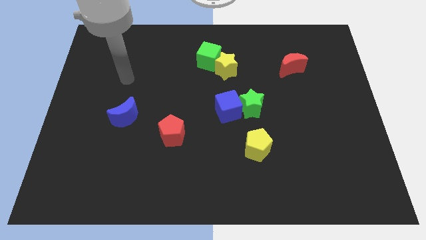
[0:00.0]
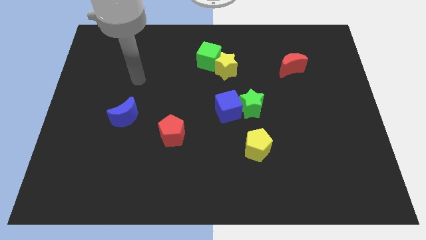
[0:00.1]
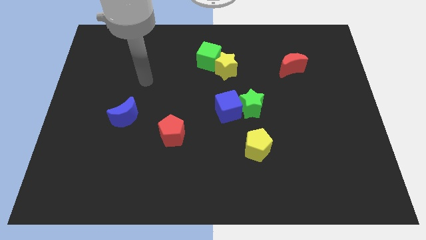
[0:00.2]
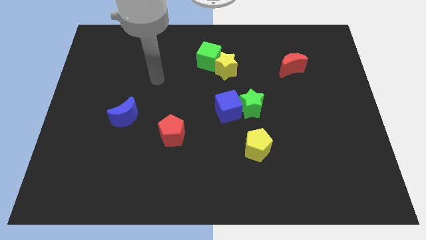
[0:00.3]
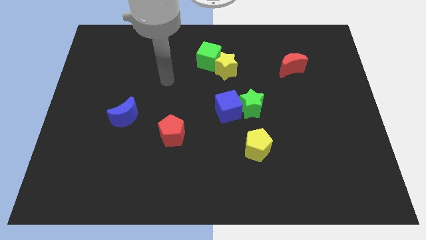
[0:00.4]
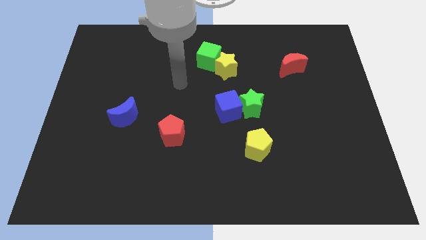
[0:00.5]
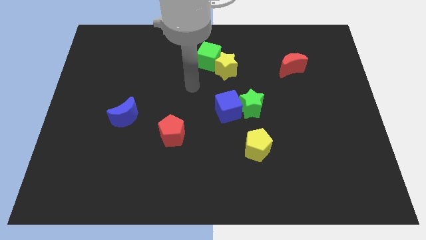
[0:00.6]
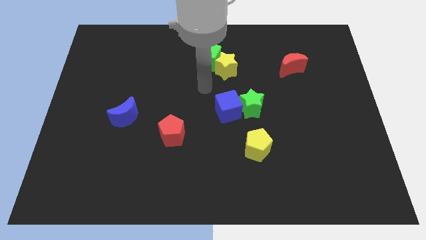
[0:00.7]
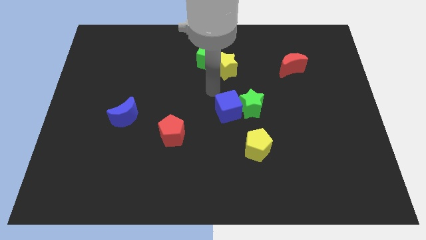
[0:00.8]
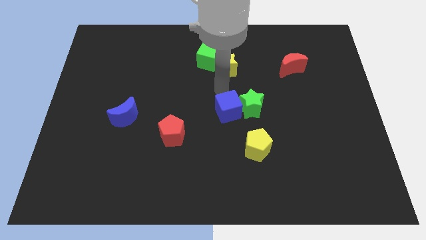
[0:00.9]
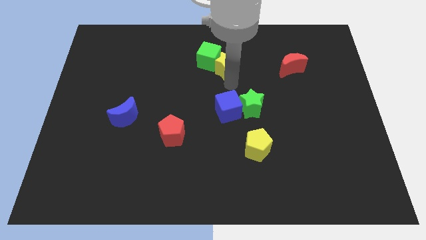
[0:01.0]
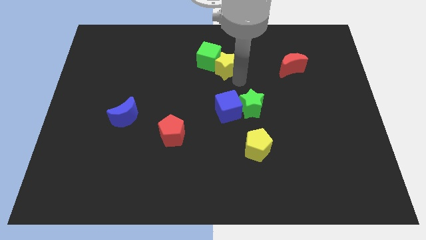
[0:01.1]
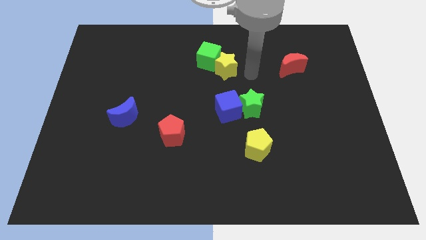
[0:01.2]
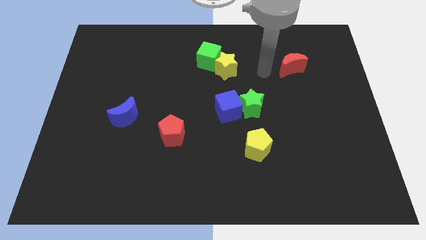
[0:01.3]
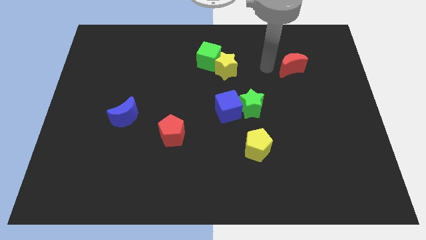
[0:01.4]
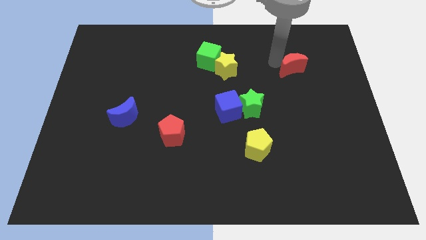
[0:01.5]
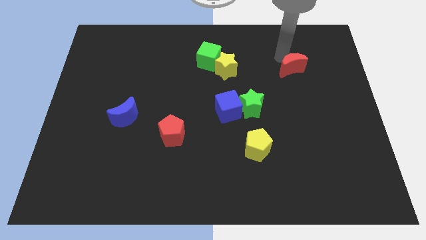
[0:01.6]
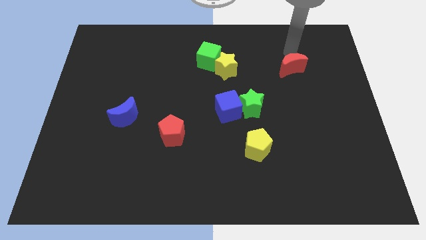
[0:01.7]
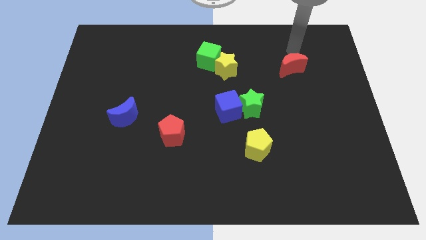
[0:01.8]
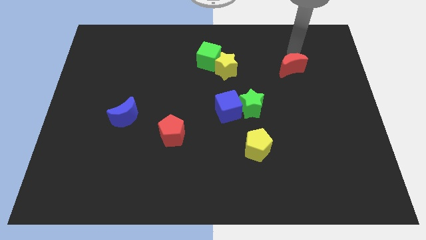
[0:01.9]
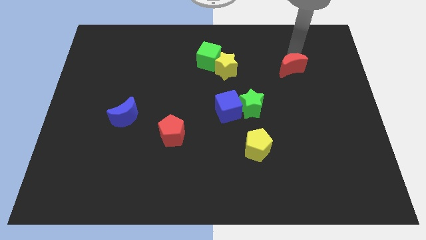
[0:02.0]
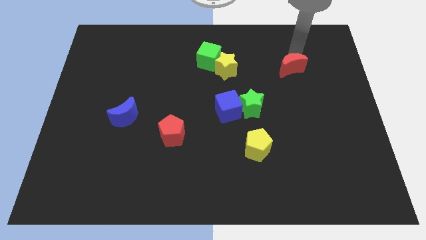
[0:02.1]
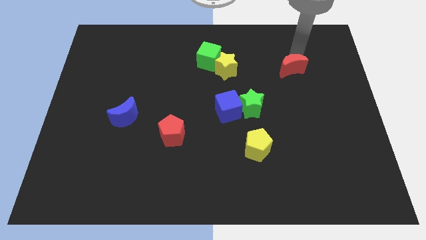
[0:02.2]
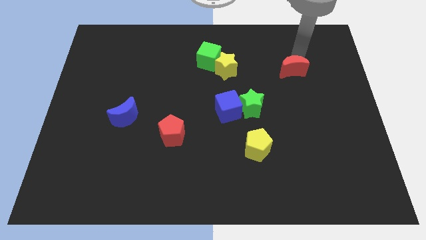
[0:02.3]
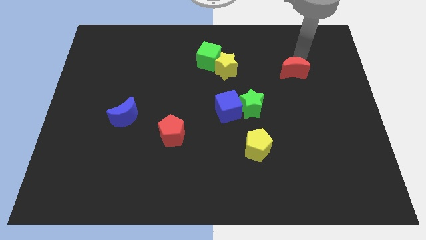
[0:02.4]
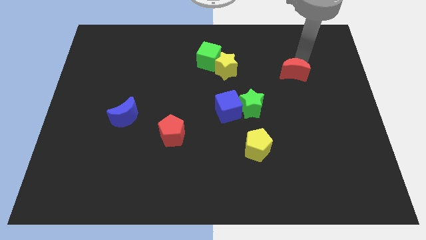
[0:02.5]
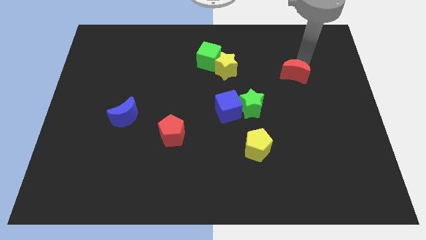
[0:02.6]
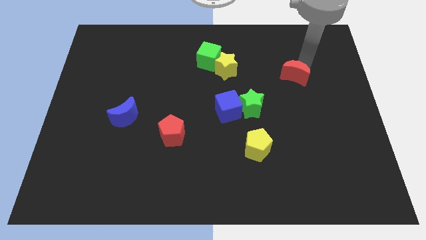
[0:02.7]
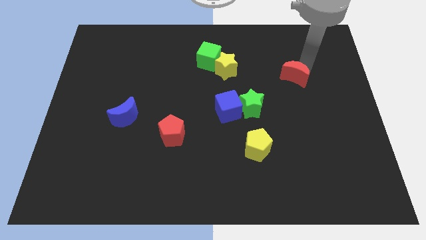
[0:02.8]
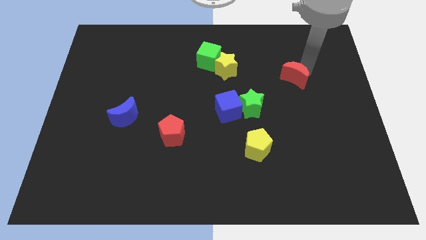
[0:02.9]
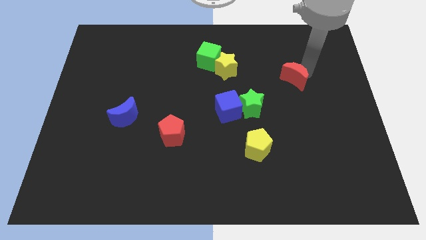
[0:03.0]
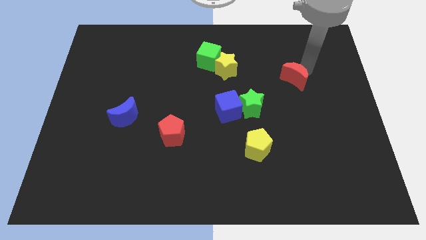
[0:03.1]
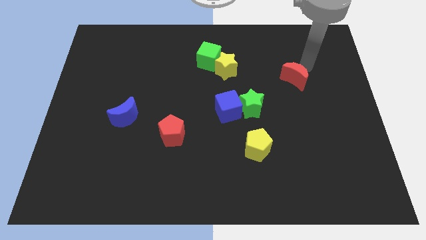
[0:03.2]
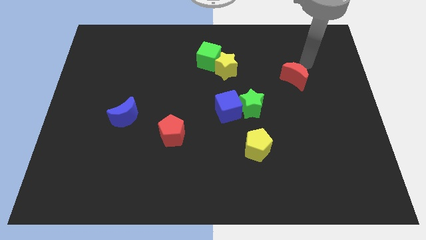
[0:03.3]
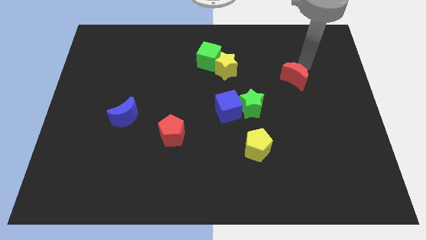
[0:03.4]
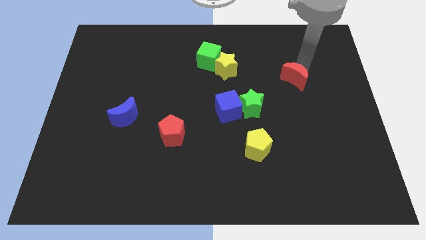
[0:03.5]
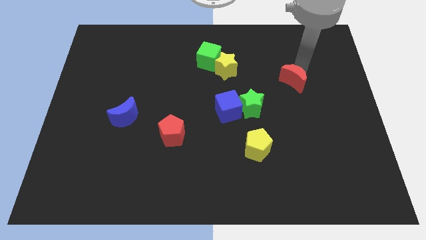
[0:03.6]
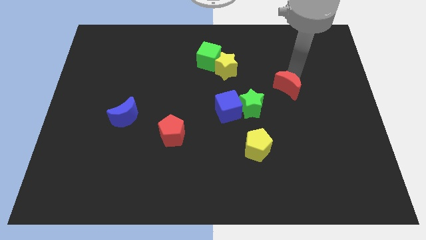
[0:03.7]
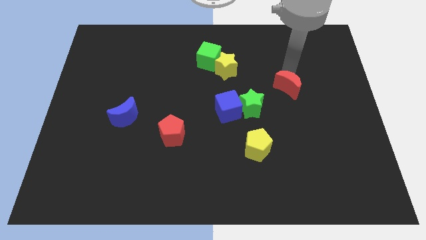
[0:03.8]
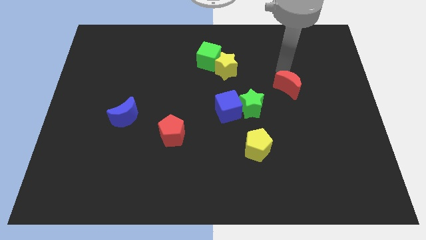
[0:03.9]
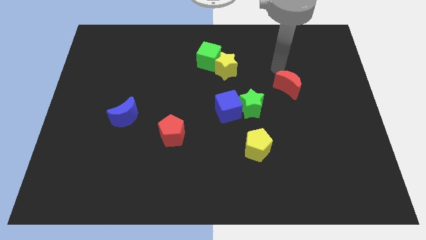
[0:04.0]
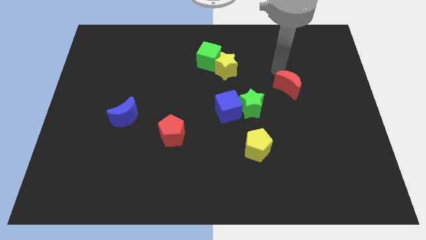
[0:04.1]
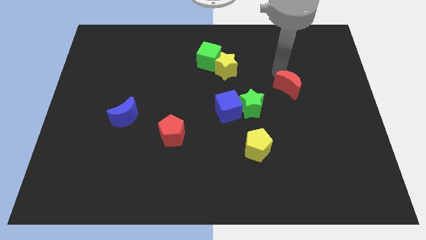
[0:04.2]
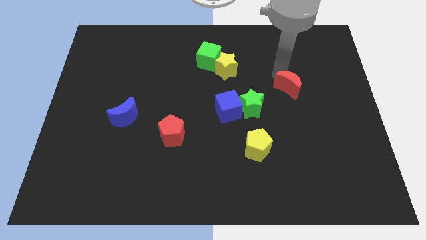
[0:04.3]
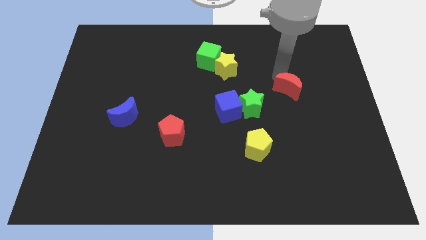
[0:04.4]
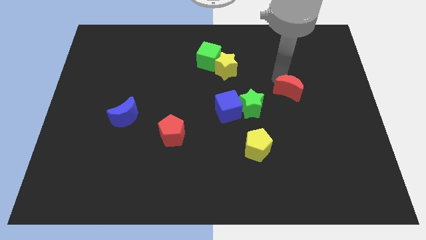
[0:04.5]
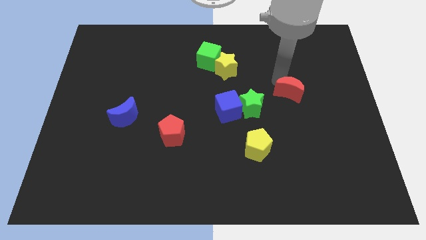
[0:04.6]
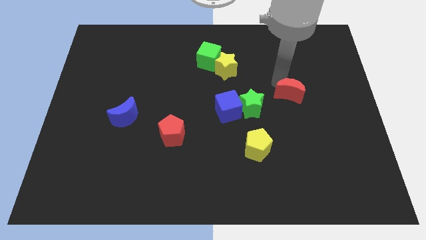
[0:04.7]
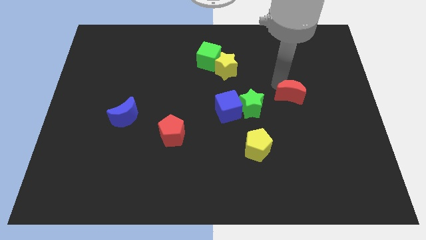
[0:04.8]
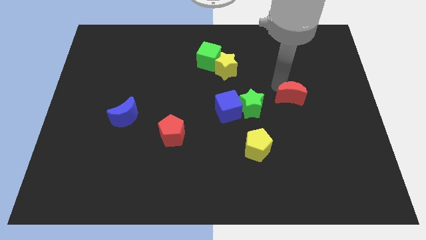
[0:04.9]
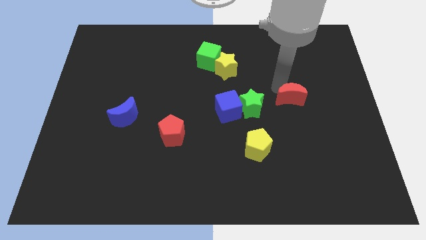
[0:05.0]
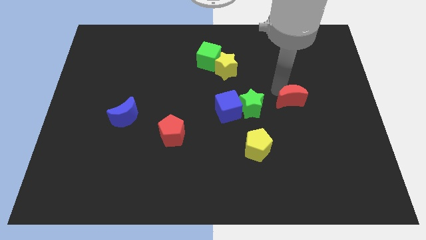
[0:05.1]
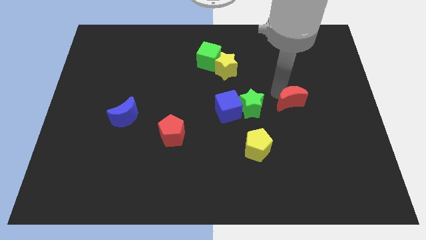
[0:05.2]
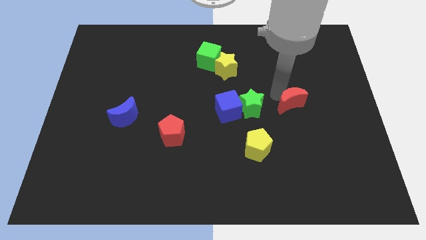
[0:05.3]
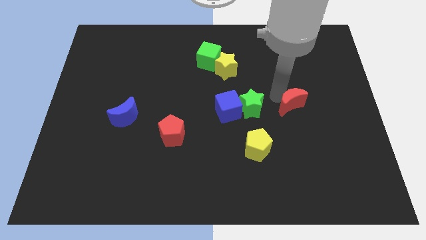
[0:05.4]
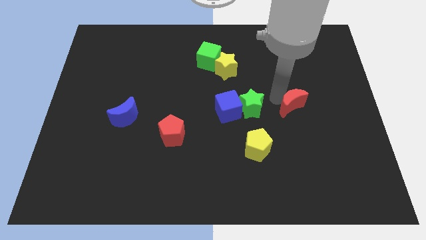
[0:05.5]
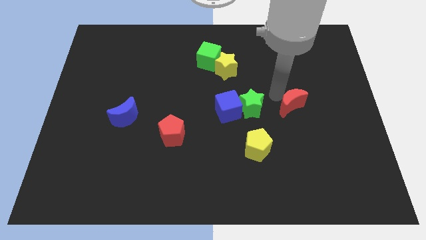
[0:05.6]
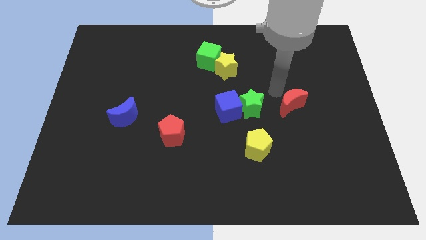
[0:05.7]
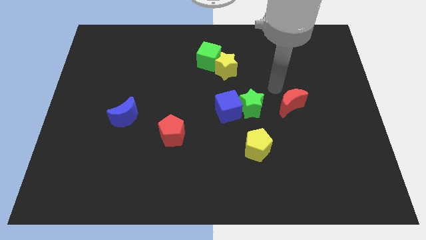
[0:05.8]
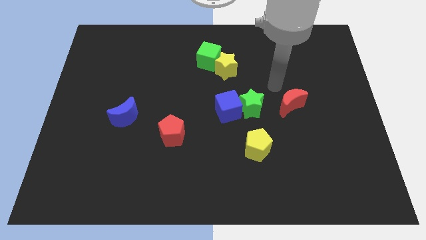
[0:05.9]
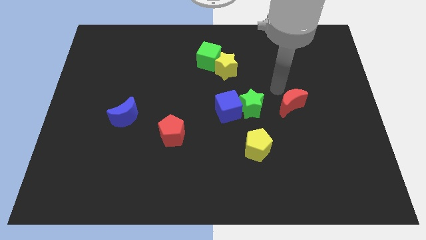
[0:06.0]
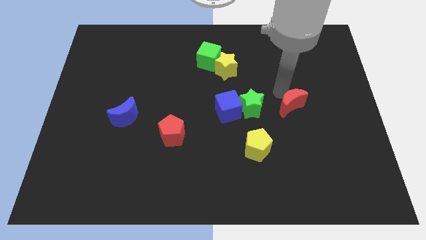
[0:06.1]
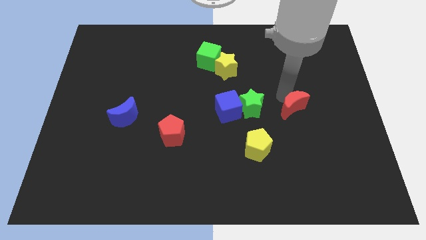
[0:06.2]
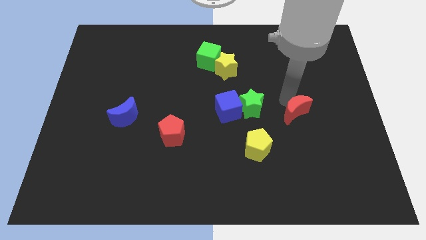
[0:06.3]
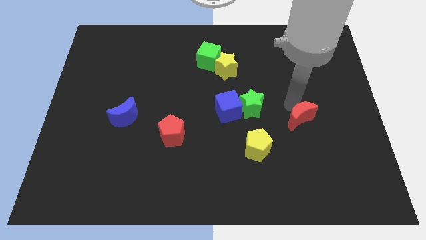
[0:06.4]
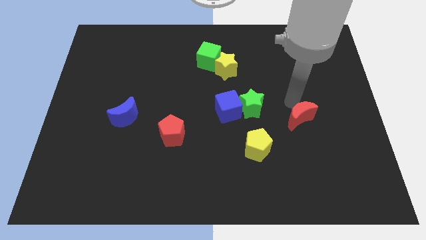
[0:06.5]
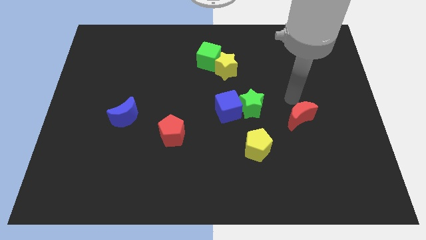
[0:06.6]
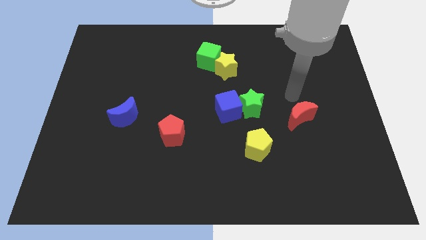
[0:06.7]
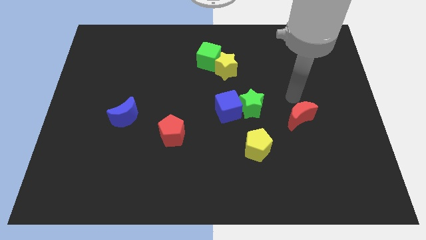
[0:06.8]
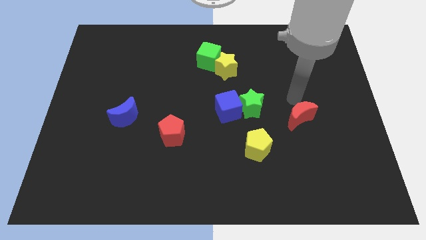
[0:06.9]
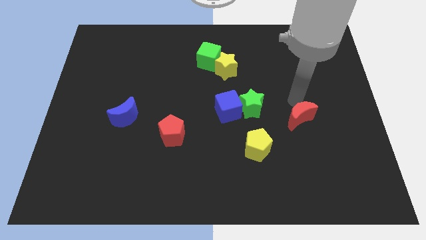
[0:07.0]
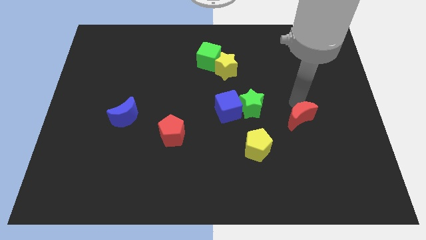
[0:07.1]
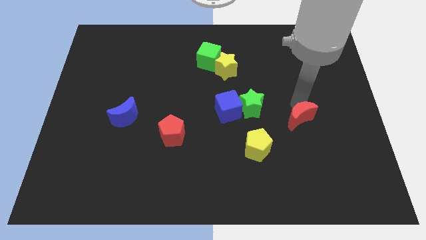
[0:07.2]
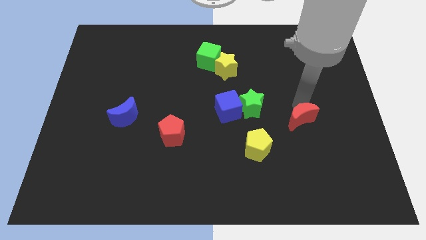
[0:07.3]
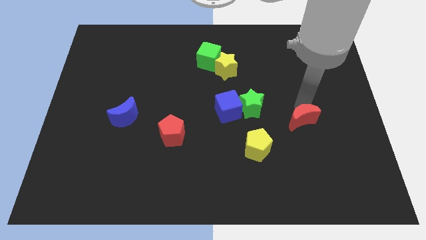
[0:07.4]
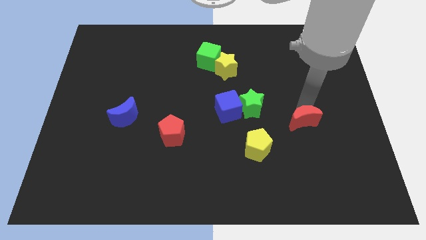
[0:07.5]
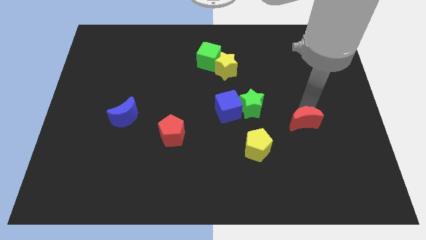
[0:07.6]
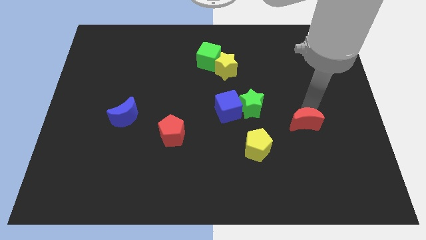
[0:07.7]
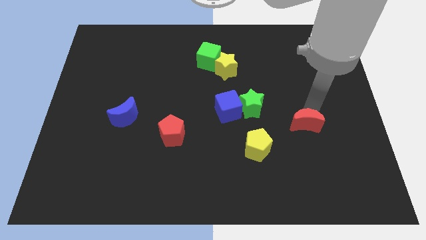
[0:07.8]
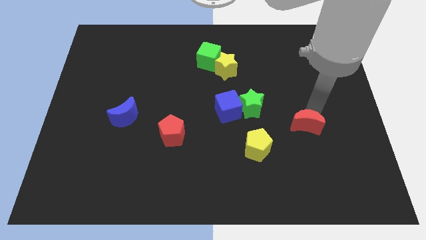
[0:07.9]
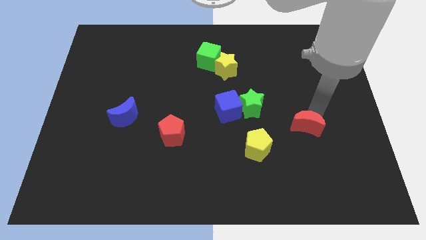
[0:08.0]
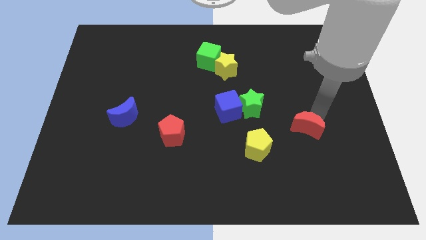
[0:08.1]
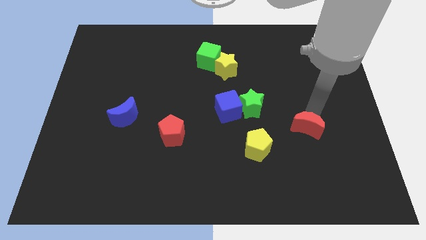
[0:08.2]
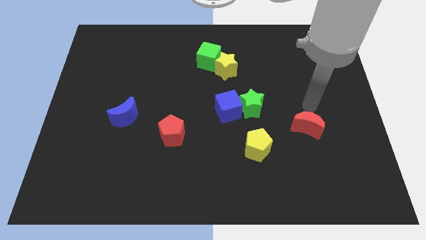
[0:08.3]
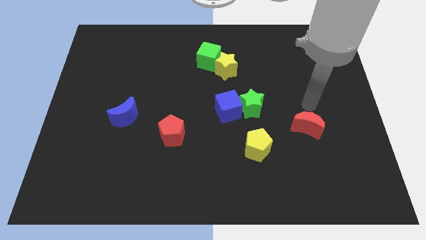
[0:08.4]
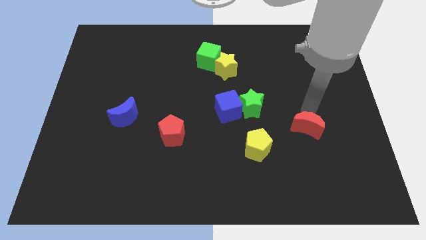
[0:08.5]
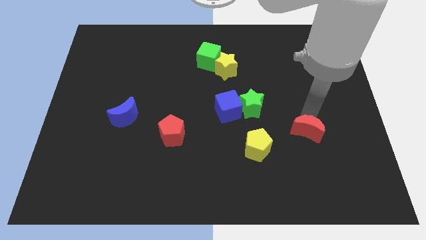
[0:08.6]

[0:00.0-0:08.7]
push the red moon downwards
